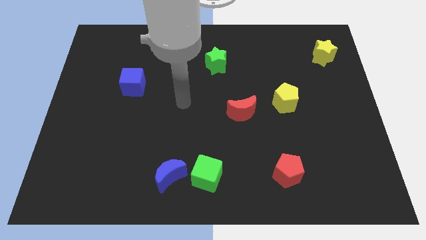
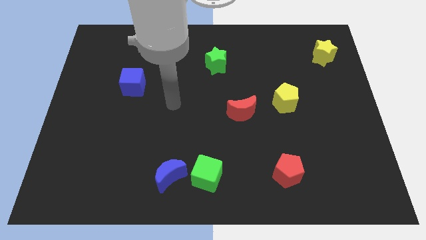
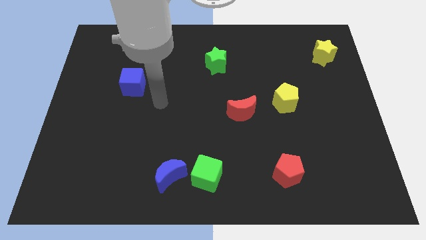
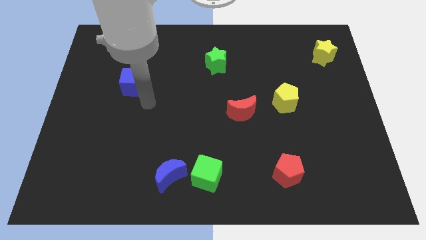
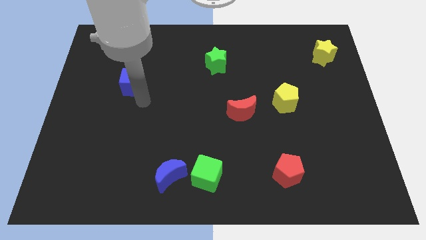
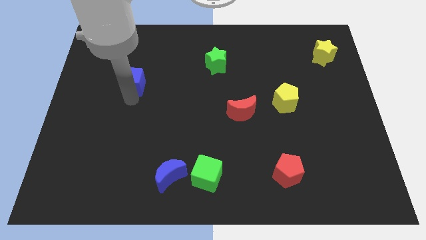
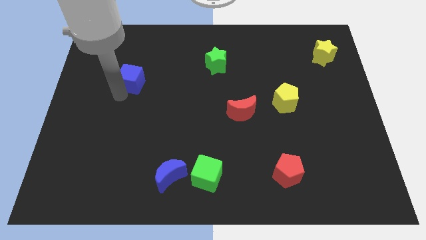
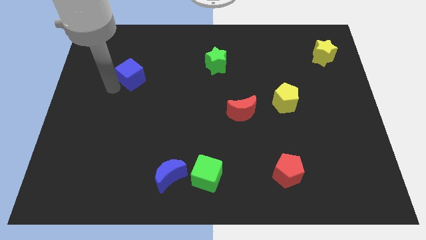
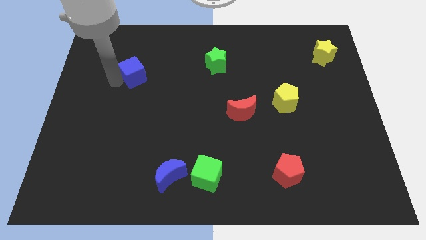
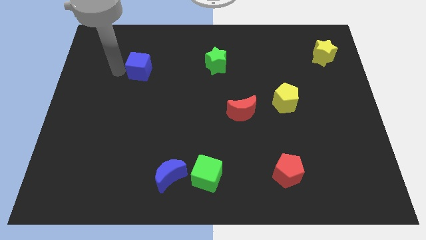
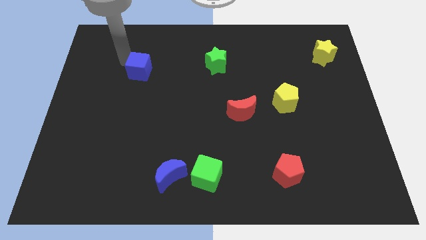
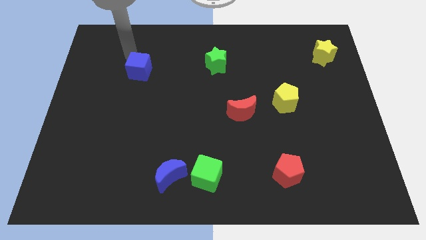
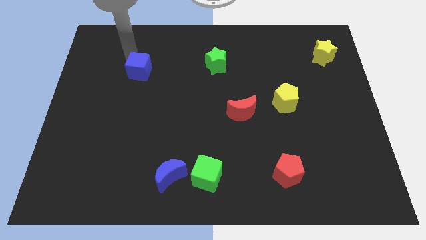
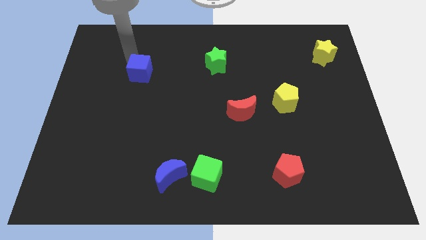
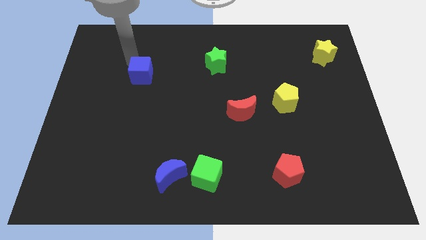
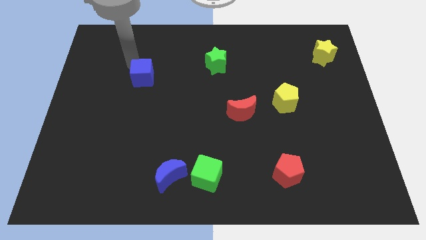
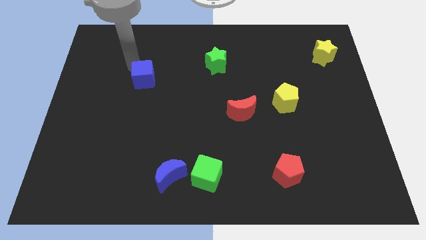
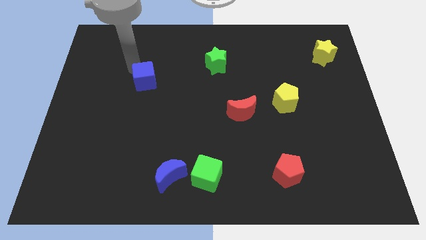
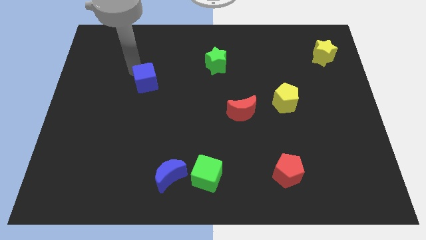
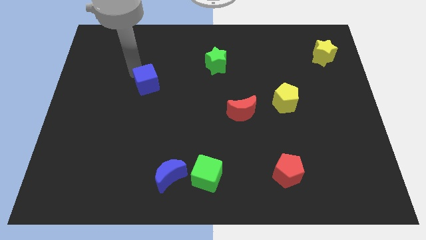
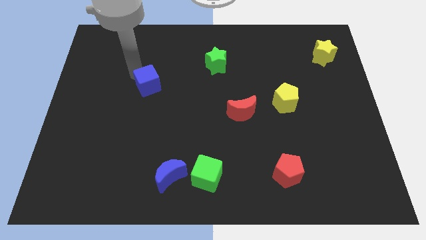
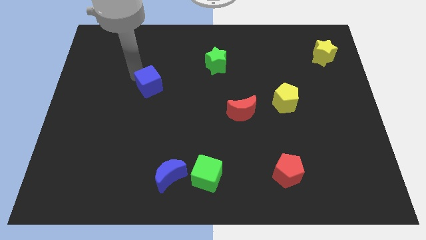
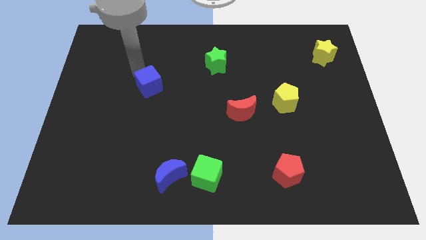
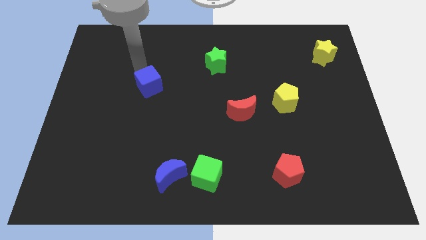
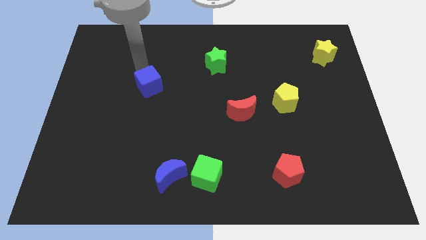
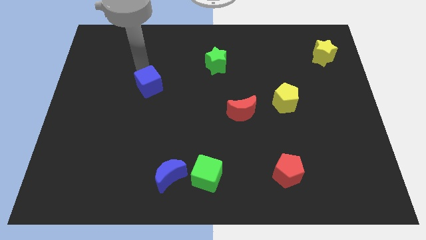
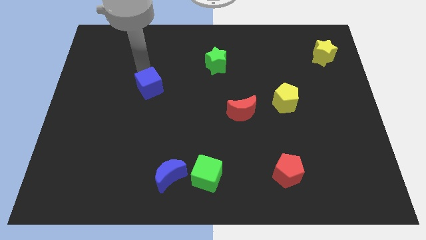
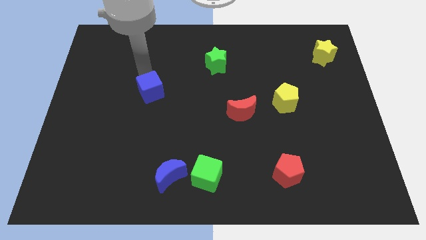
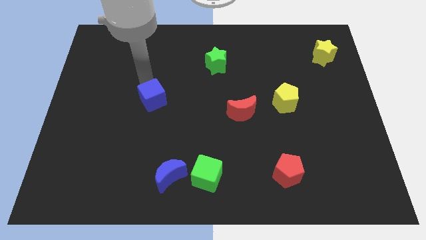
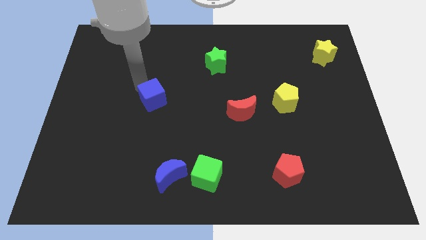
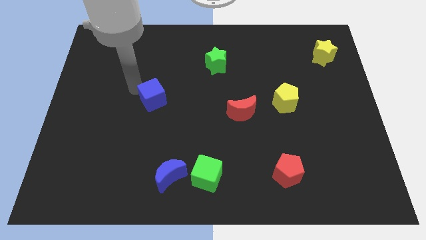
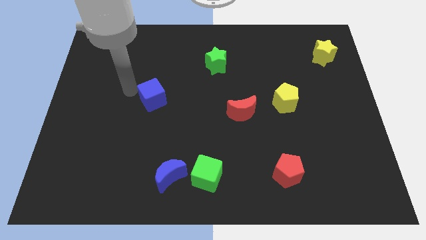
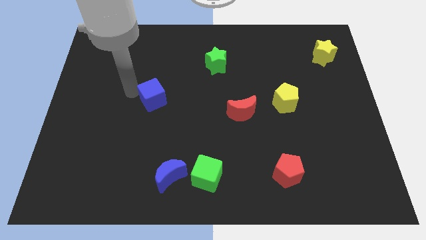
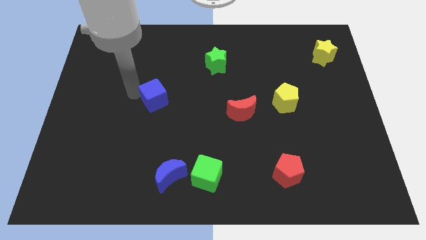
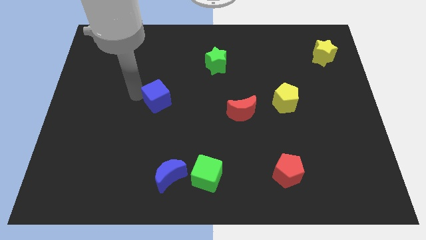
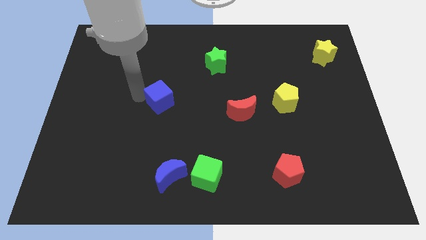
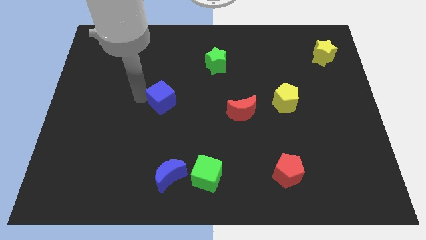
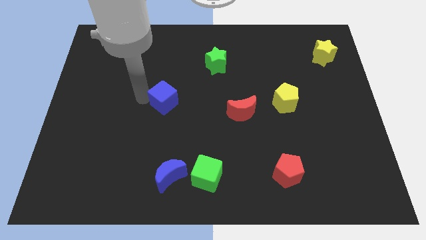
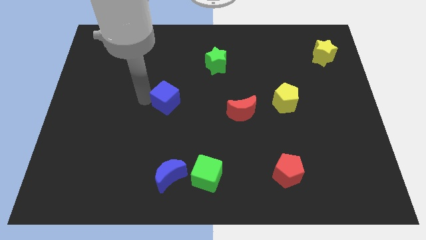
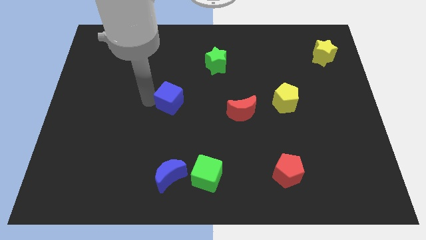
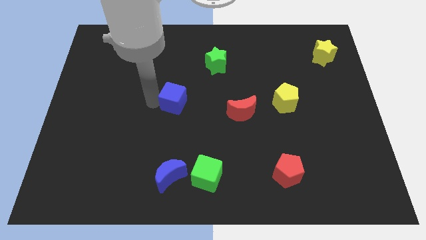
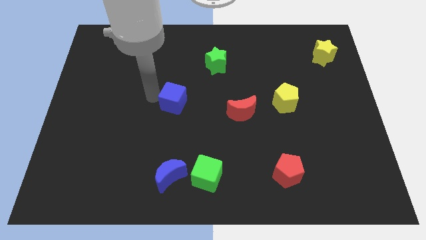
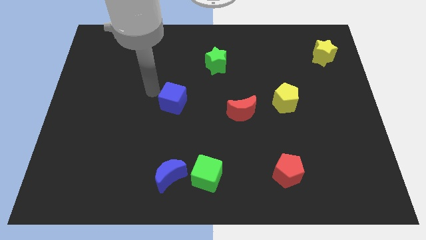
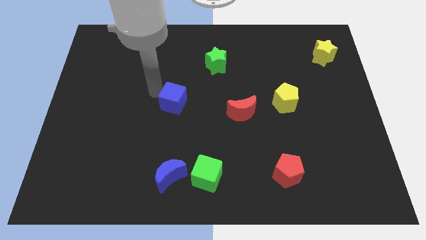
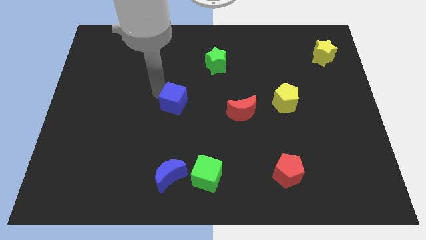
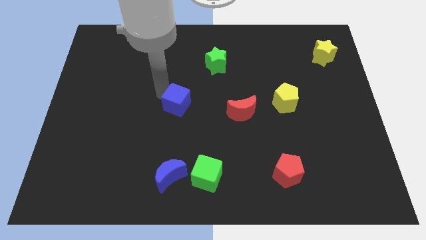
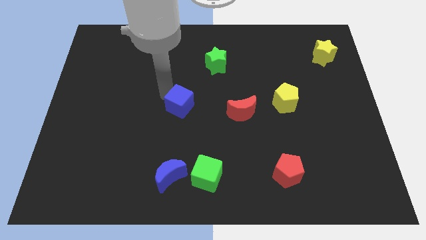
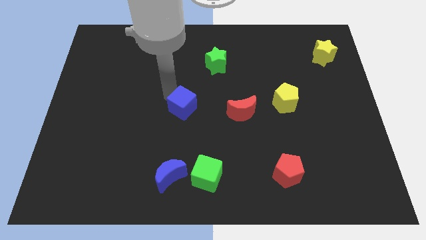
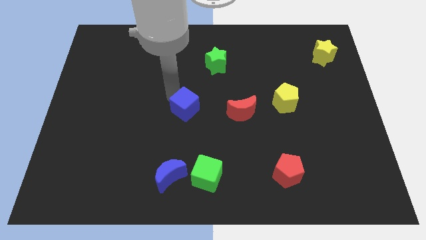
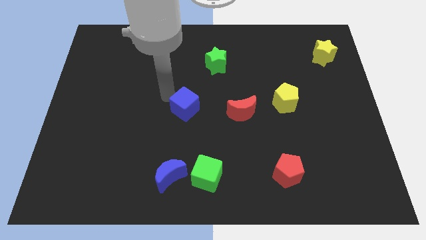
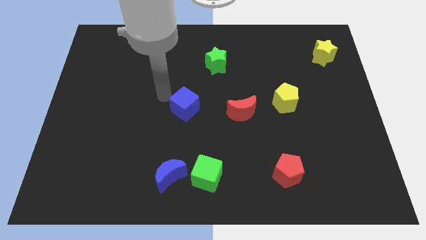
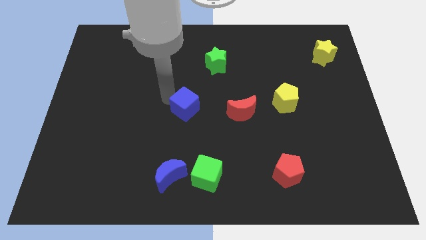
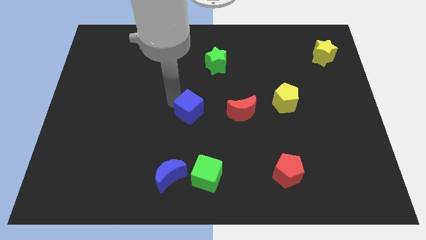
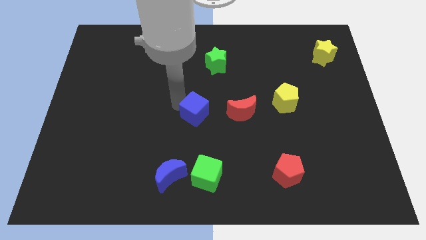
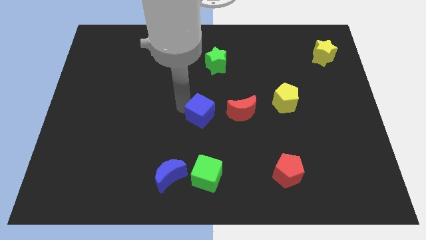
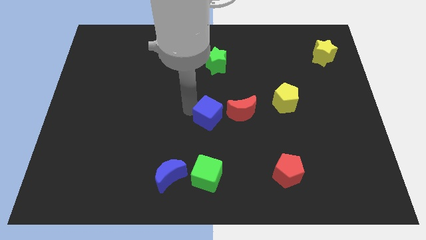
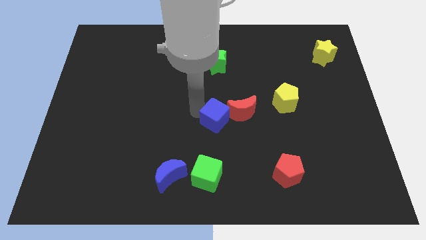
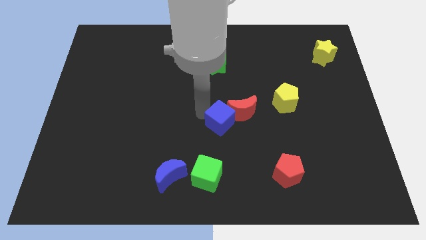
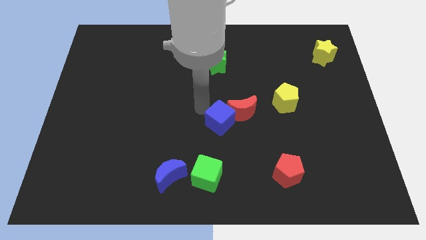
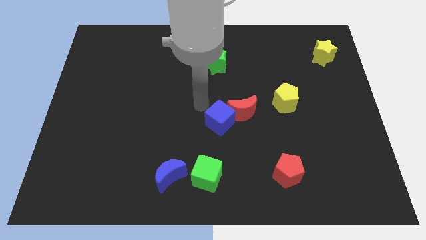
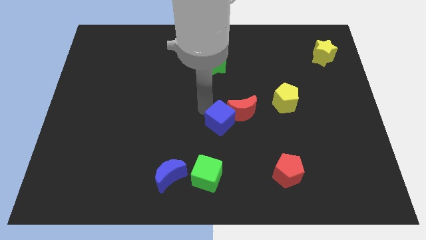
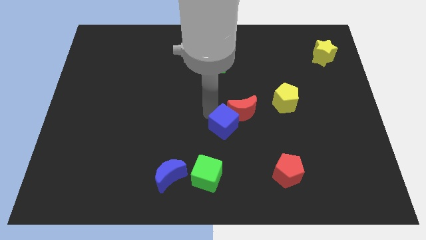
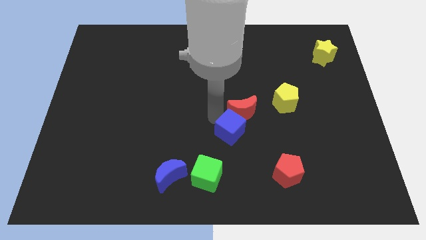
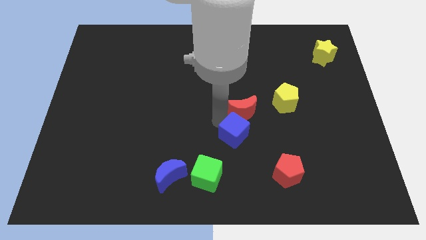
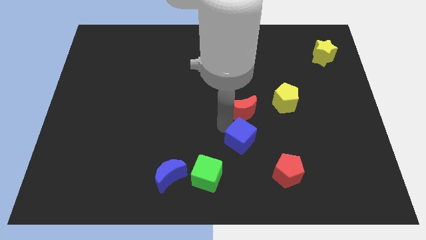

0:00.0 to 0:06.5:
put the blue cube to the top left side of the red pentagon

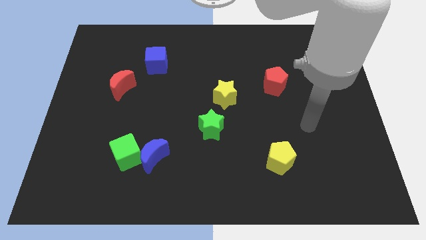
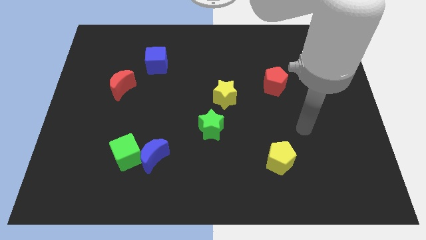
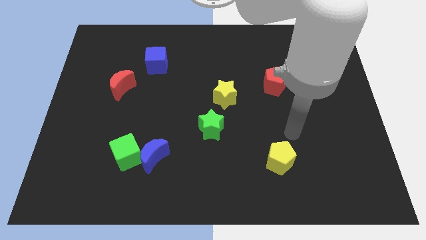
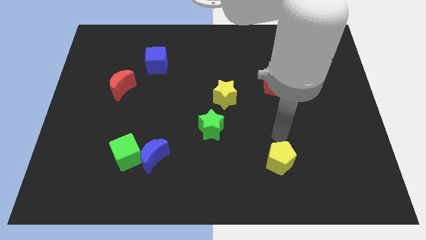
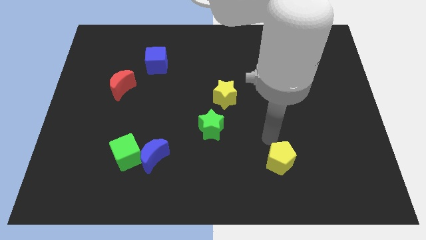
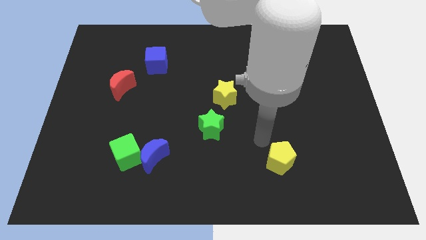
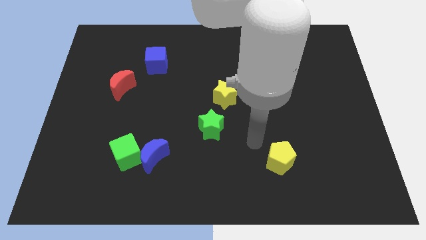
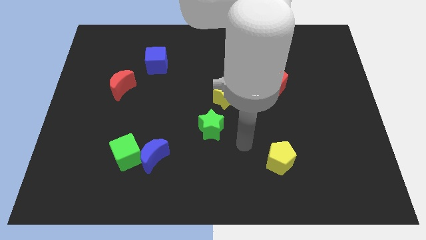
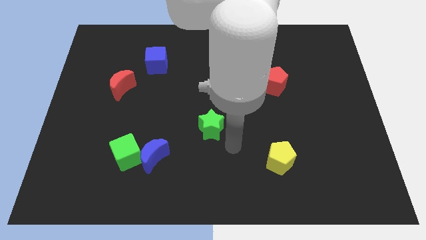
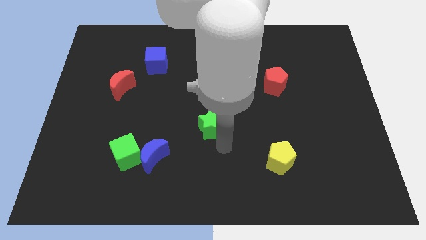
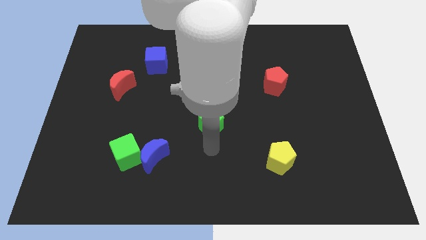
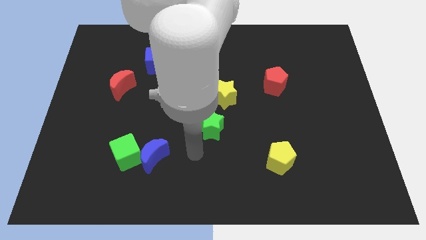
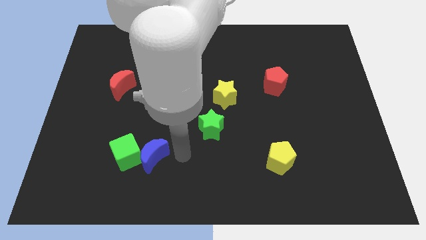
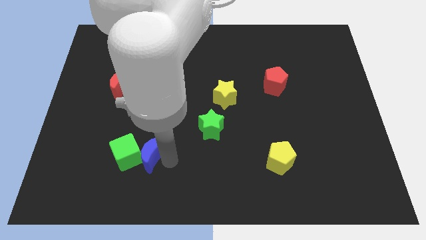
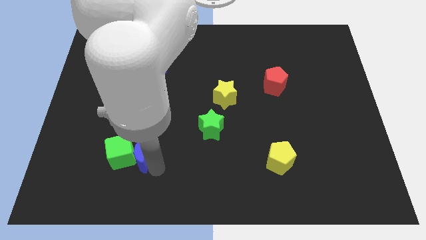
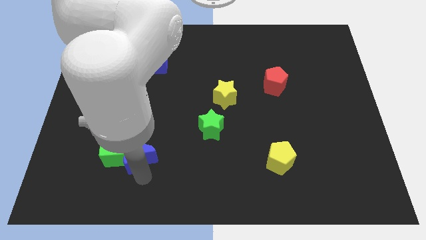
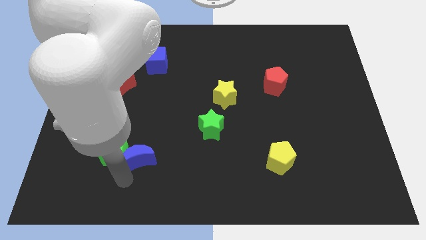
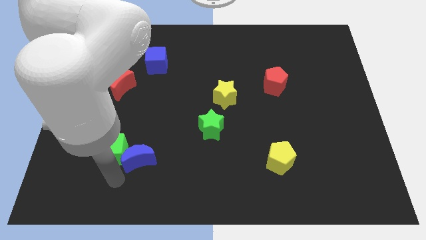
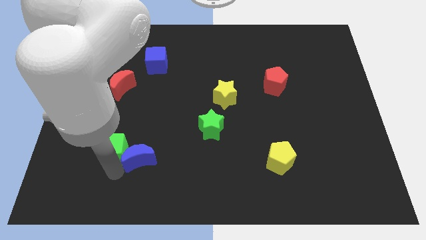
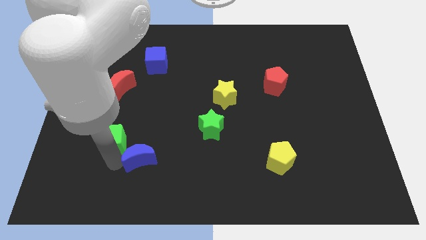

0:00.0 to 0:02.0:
put the green cube to the bottom of the red moon
